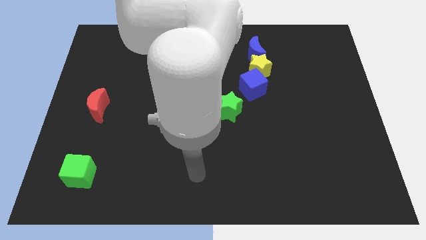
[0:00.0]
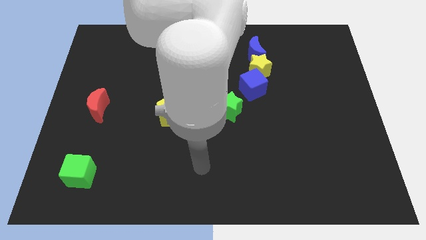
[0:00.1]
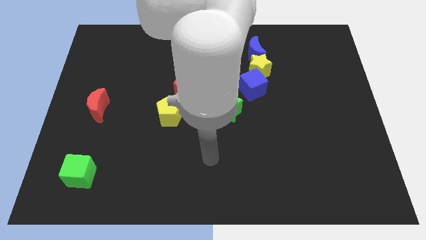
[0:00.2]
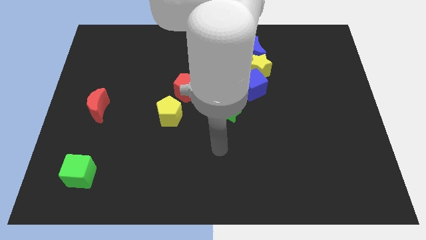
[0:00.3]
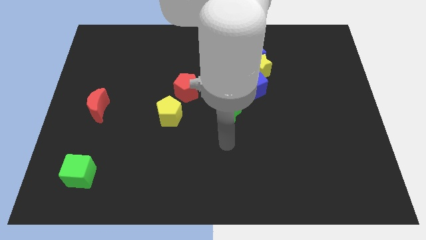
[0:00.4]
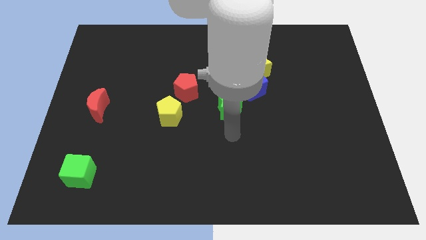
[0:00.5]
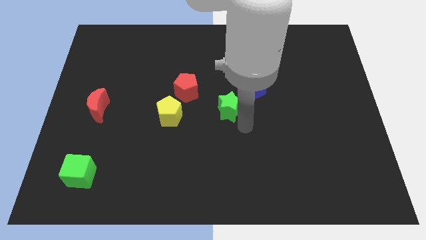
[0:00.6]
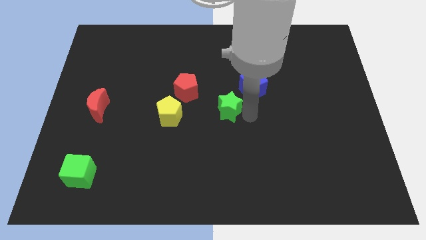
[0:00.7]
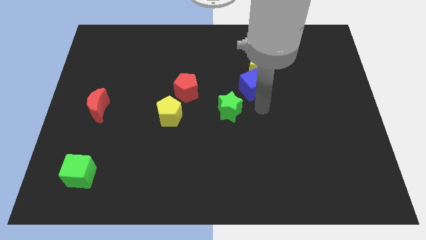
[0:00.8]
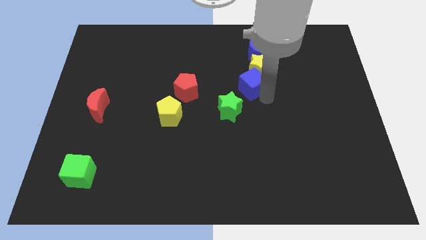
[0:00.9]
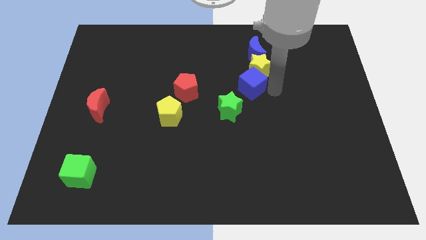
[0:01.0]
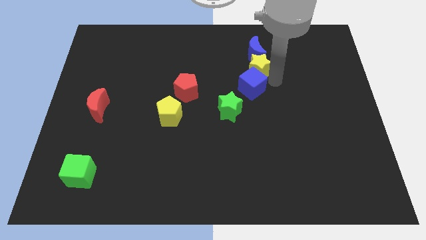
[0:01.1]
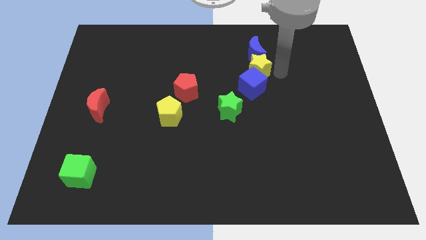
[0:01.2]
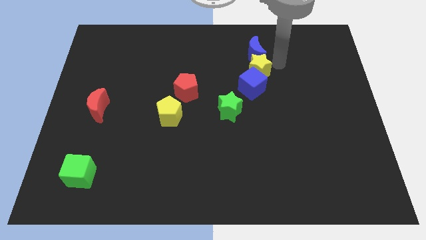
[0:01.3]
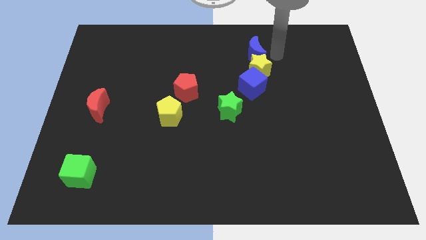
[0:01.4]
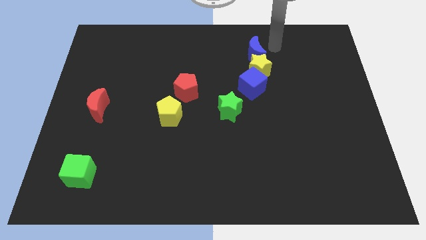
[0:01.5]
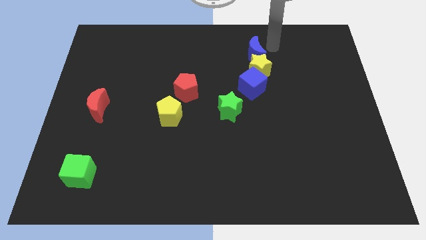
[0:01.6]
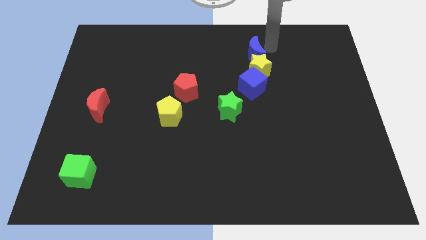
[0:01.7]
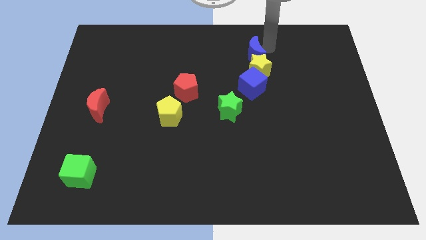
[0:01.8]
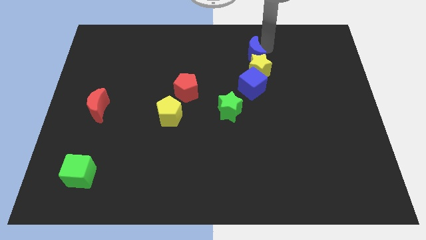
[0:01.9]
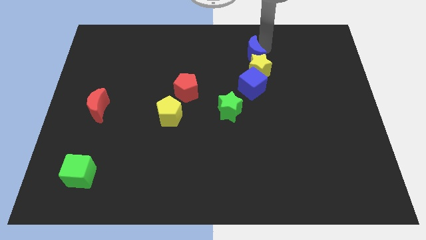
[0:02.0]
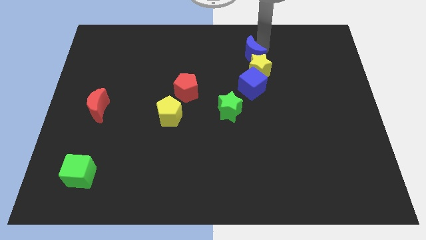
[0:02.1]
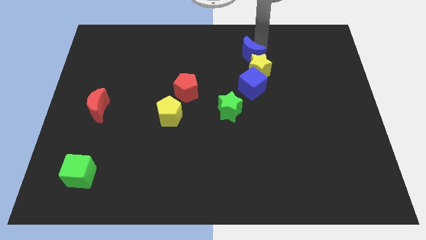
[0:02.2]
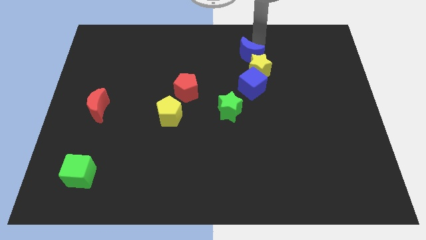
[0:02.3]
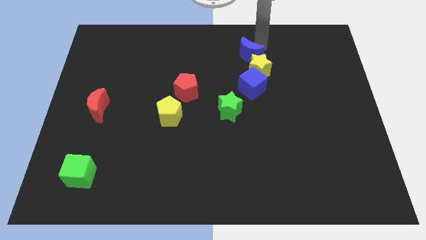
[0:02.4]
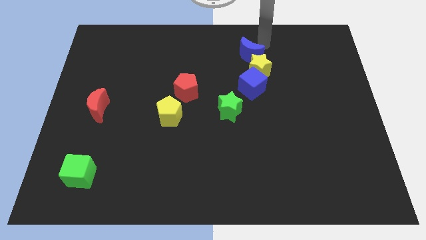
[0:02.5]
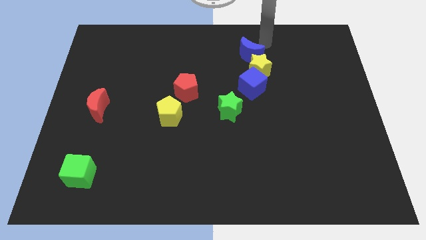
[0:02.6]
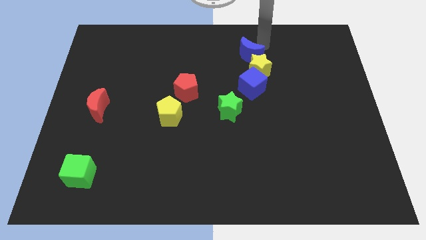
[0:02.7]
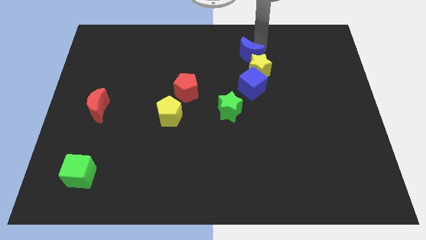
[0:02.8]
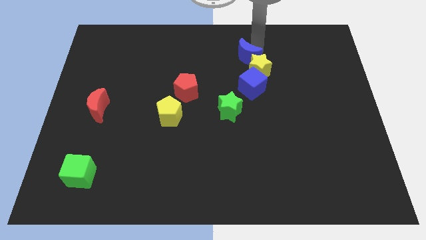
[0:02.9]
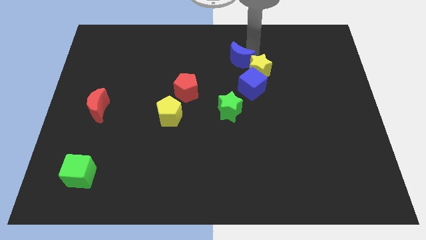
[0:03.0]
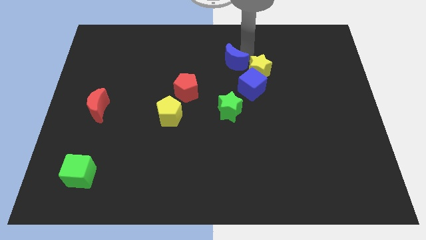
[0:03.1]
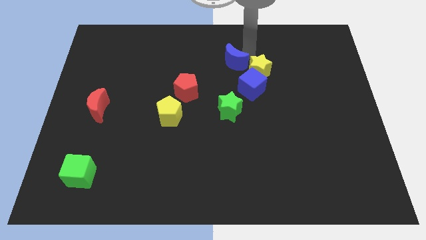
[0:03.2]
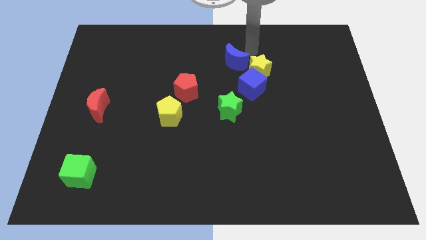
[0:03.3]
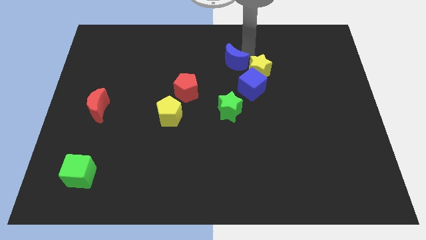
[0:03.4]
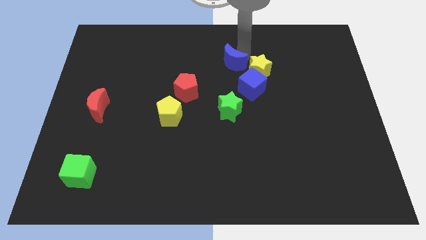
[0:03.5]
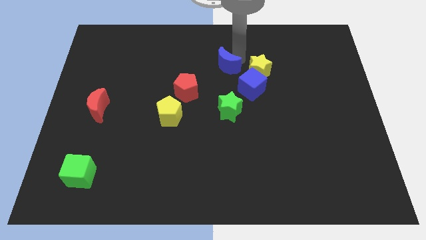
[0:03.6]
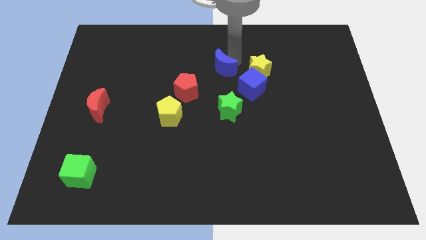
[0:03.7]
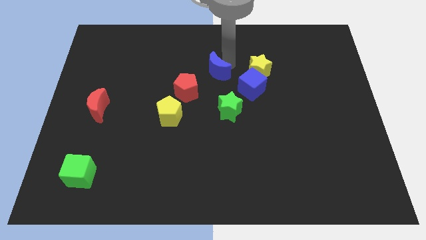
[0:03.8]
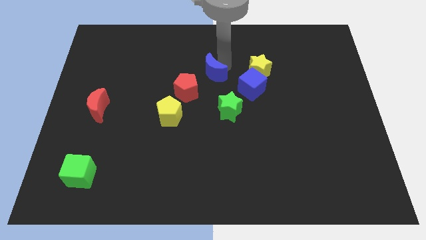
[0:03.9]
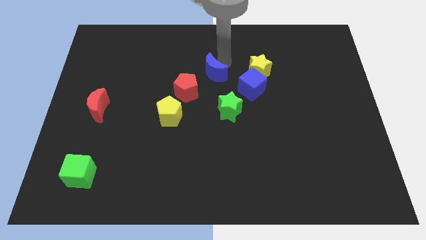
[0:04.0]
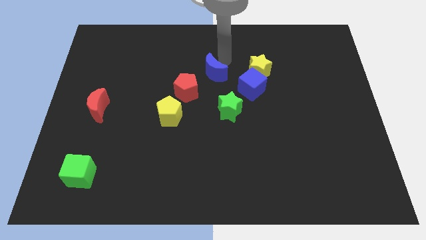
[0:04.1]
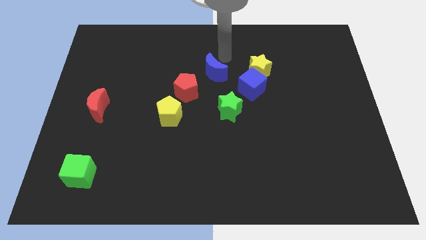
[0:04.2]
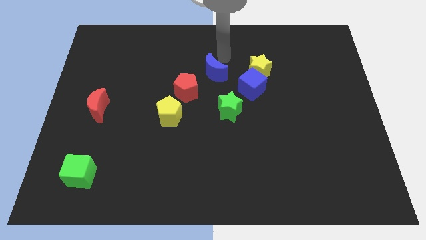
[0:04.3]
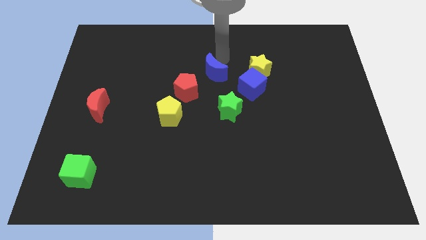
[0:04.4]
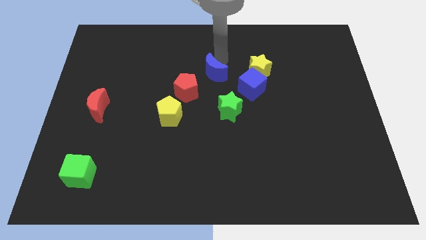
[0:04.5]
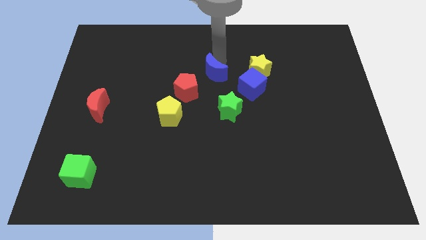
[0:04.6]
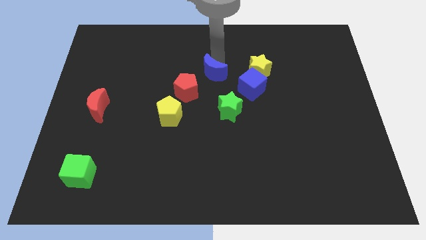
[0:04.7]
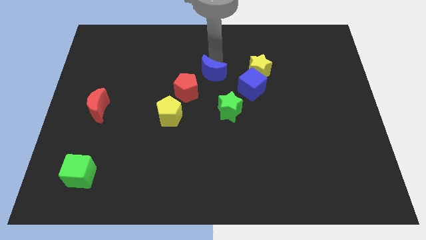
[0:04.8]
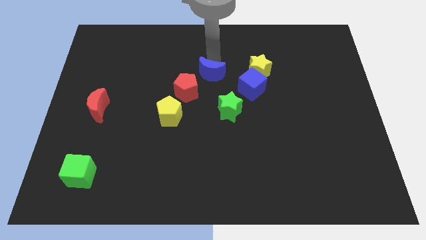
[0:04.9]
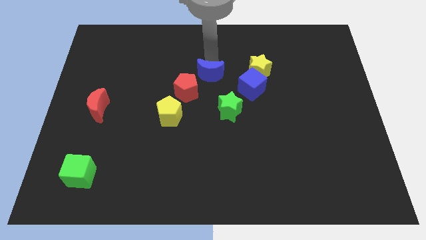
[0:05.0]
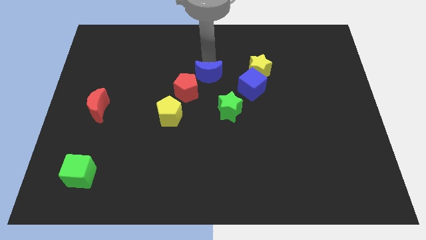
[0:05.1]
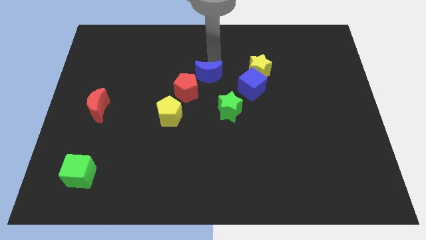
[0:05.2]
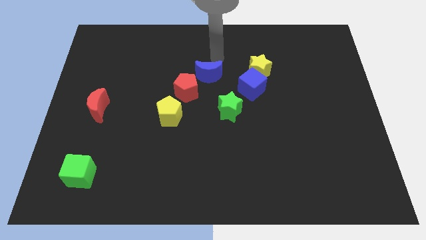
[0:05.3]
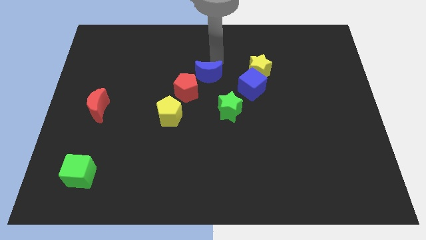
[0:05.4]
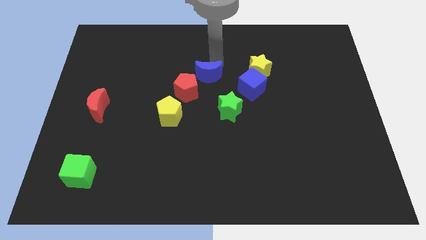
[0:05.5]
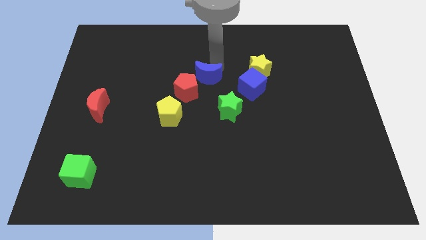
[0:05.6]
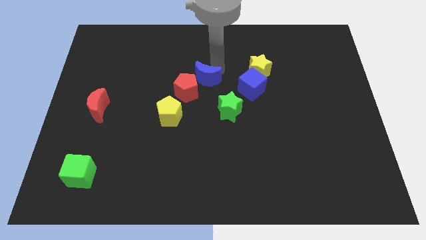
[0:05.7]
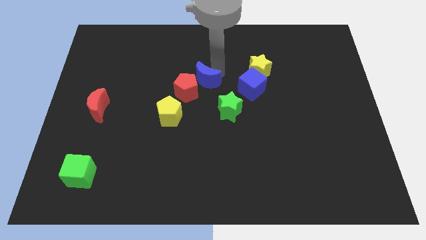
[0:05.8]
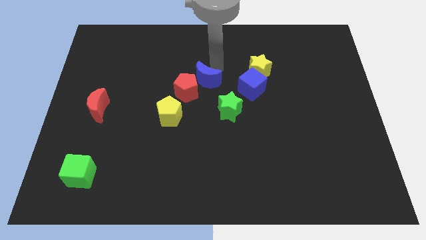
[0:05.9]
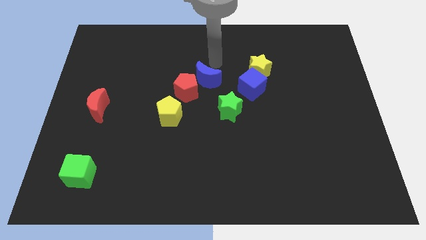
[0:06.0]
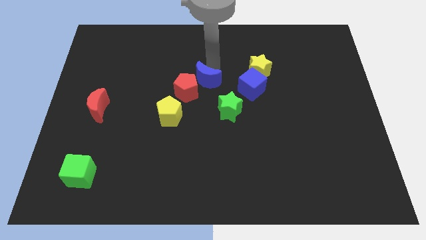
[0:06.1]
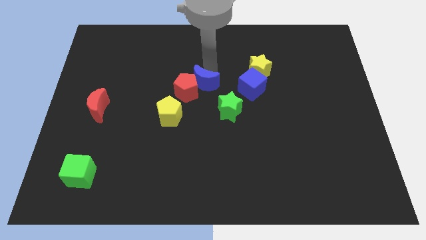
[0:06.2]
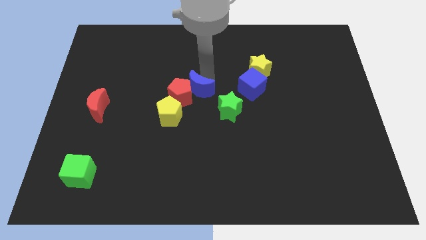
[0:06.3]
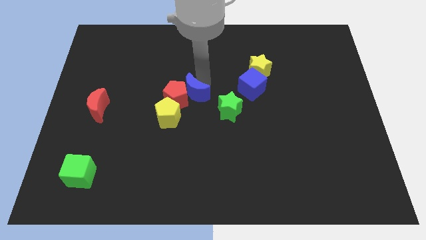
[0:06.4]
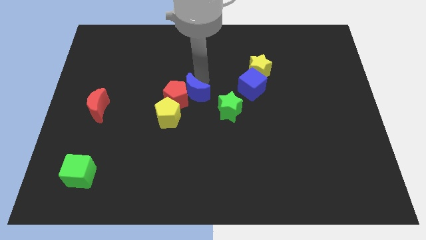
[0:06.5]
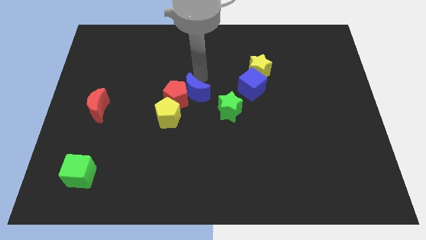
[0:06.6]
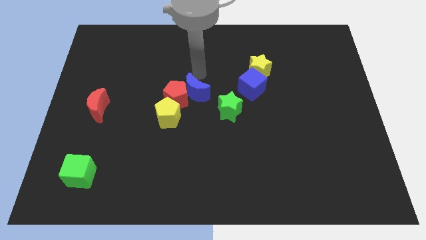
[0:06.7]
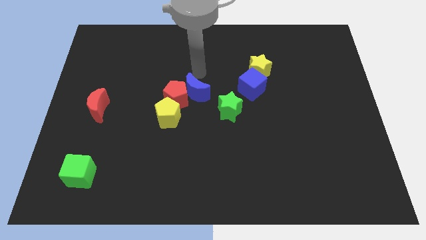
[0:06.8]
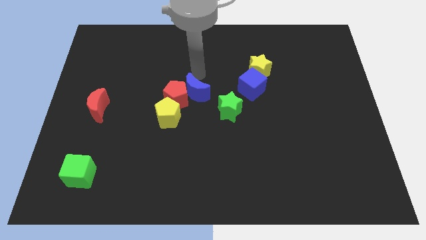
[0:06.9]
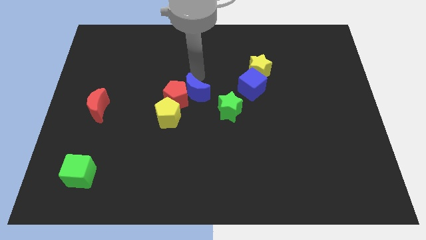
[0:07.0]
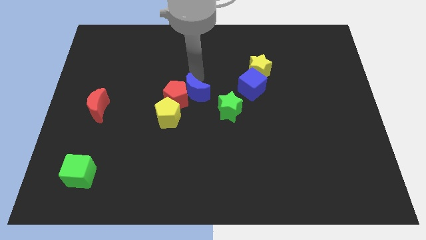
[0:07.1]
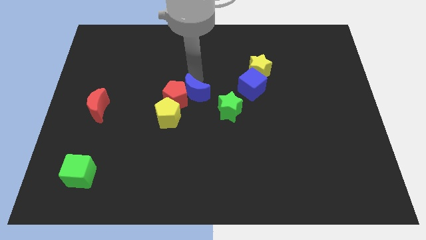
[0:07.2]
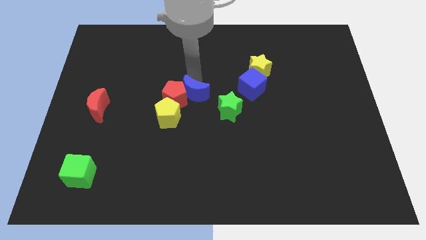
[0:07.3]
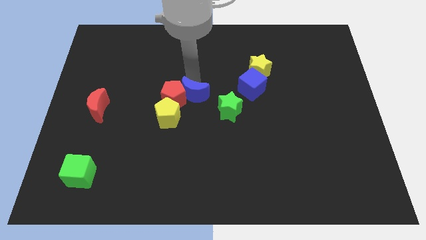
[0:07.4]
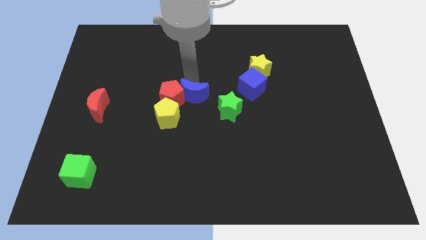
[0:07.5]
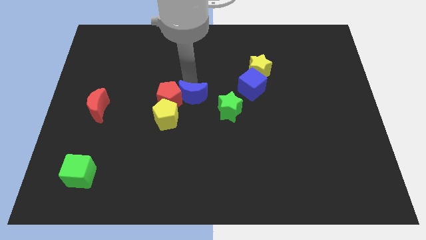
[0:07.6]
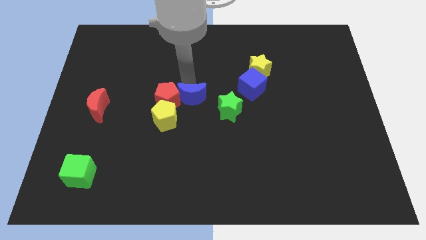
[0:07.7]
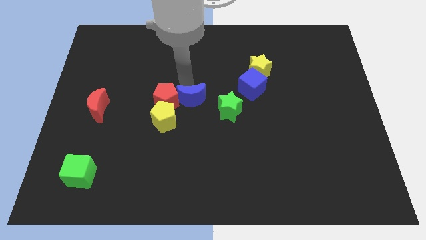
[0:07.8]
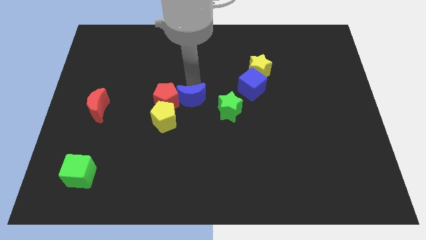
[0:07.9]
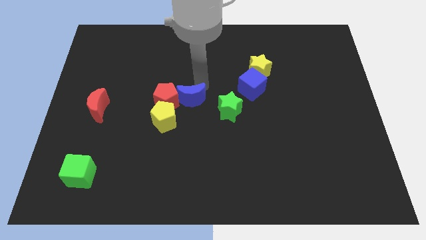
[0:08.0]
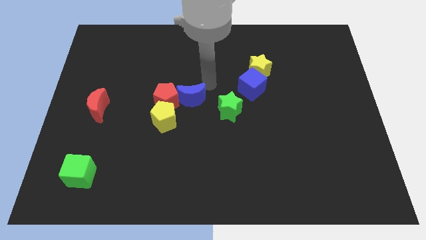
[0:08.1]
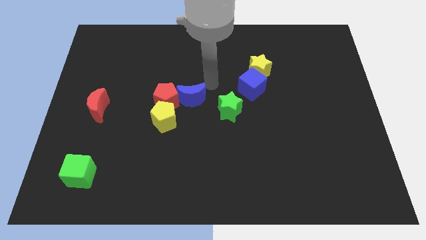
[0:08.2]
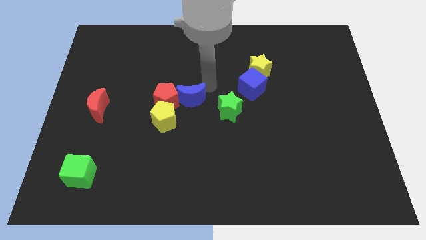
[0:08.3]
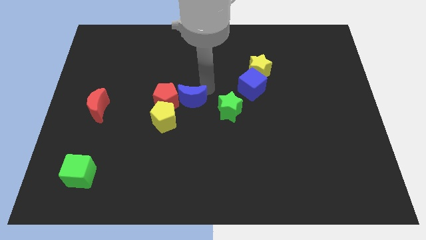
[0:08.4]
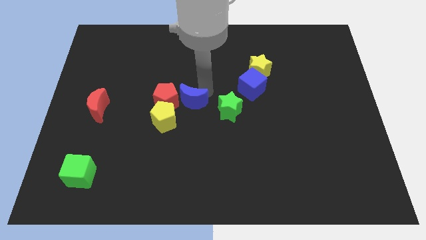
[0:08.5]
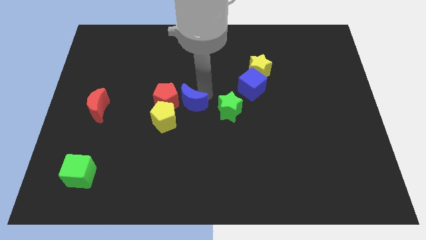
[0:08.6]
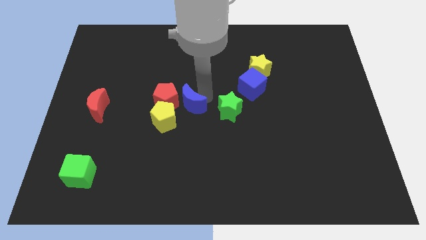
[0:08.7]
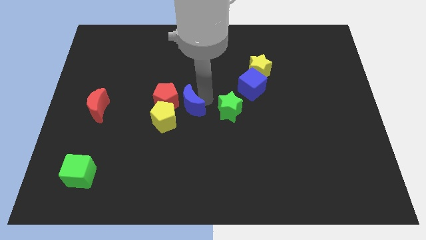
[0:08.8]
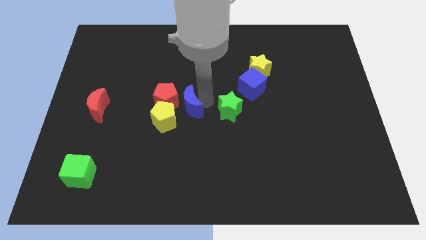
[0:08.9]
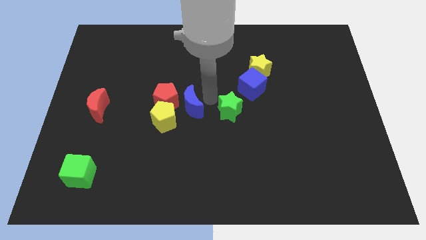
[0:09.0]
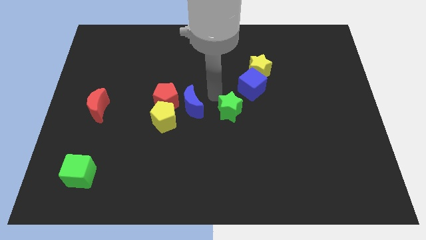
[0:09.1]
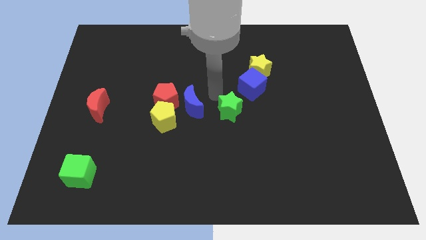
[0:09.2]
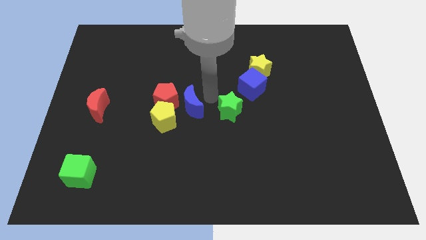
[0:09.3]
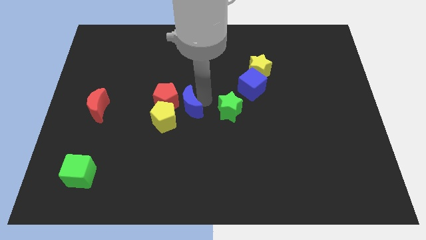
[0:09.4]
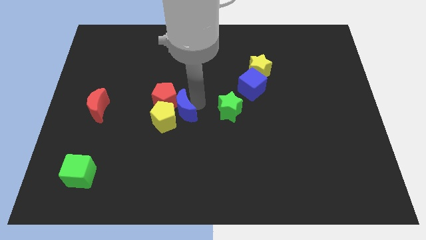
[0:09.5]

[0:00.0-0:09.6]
move the blue moon towards the yellow pentagon
